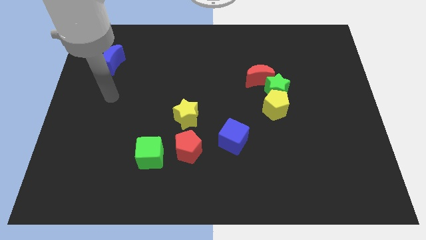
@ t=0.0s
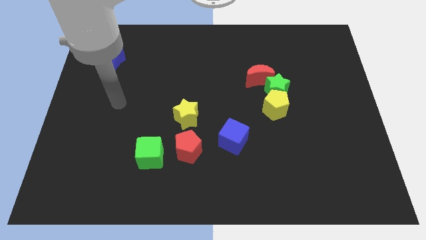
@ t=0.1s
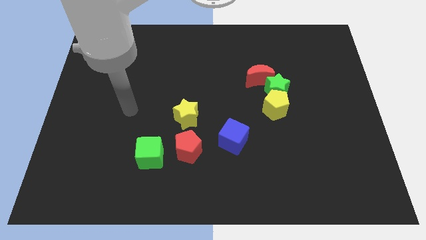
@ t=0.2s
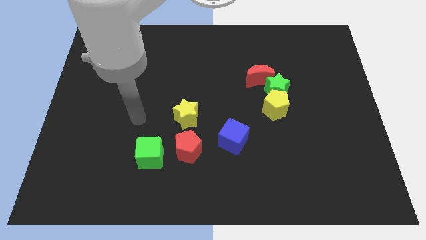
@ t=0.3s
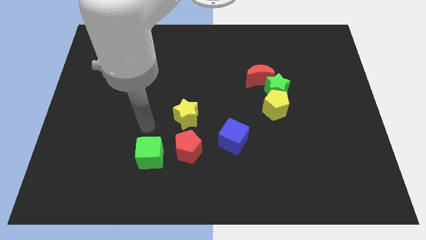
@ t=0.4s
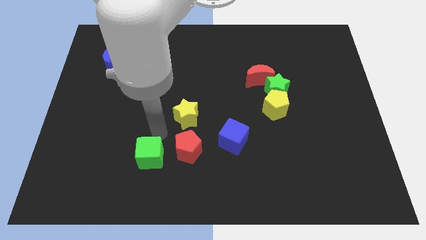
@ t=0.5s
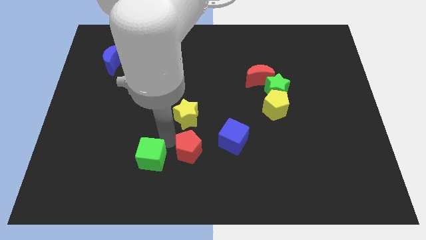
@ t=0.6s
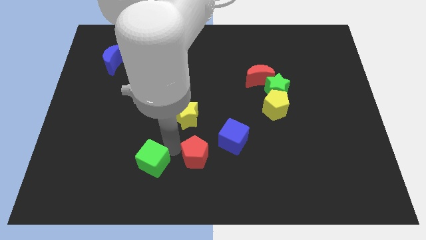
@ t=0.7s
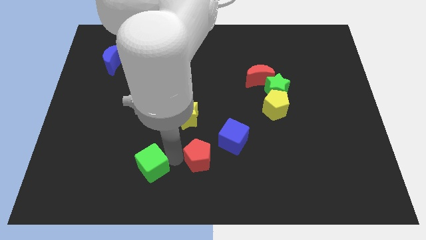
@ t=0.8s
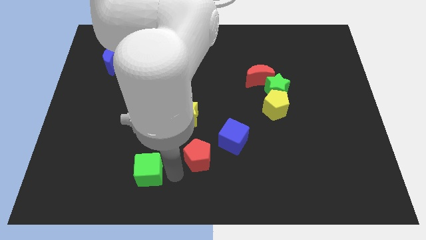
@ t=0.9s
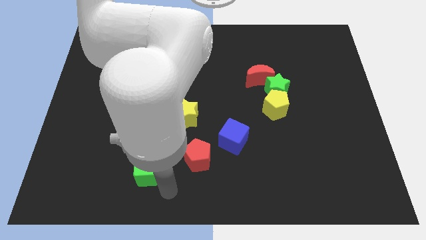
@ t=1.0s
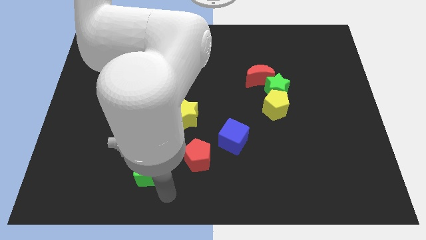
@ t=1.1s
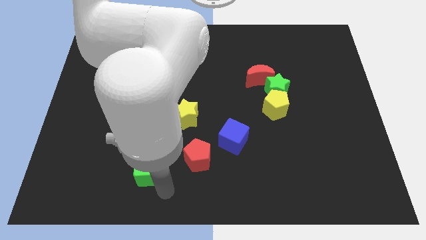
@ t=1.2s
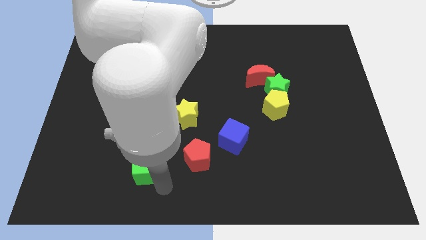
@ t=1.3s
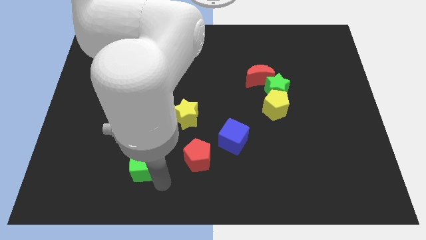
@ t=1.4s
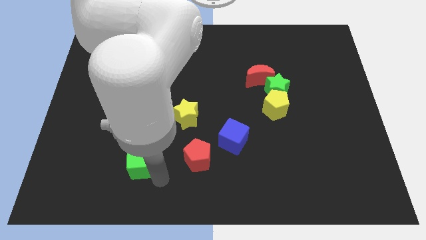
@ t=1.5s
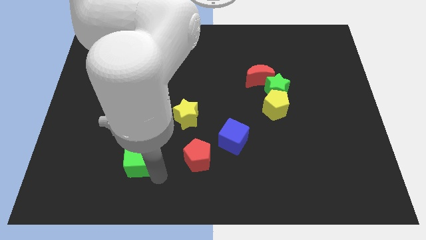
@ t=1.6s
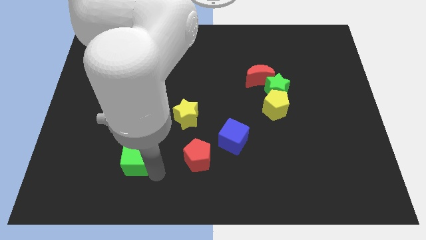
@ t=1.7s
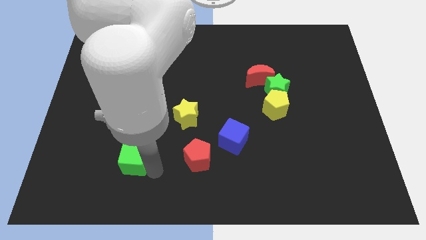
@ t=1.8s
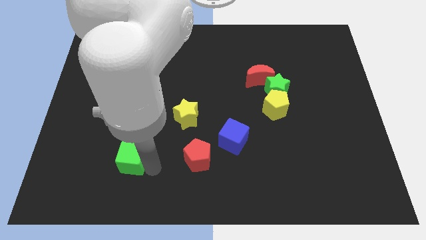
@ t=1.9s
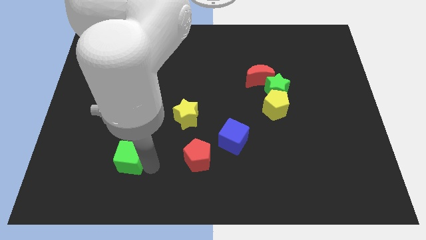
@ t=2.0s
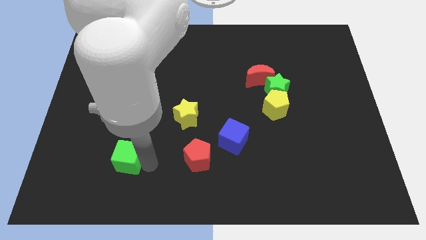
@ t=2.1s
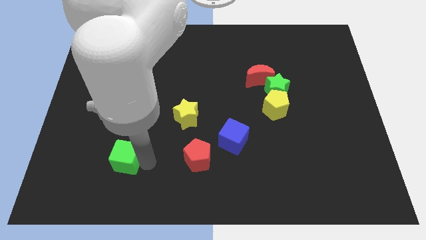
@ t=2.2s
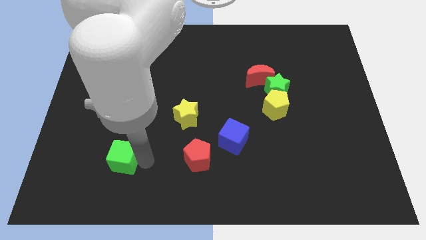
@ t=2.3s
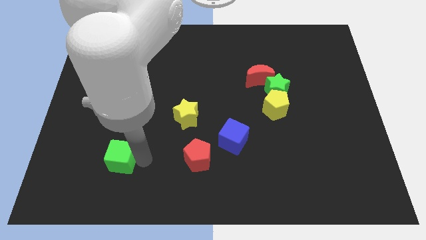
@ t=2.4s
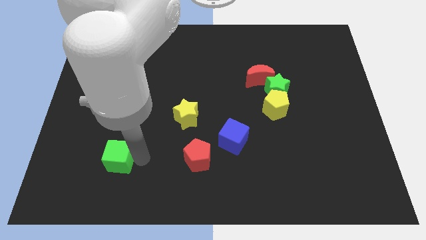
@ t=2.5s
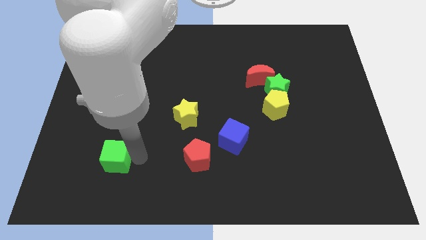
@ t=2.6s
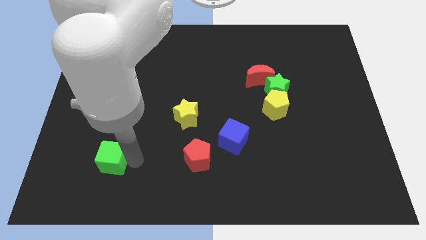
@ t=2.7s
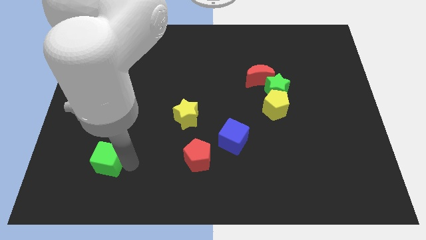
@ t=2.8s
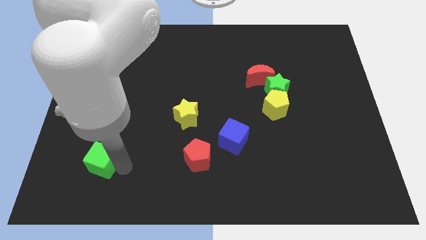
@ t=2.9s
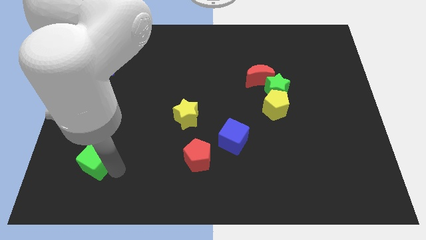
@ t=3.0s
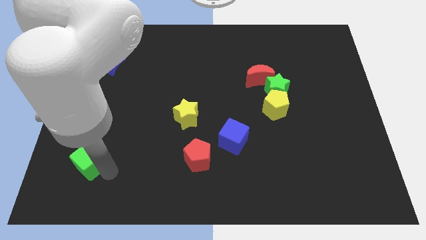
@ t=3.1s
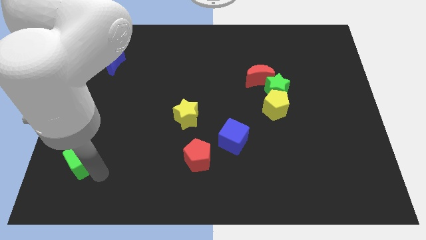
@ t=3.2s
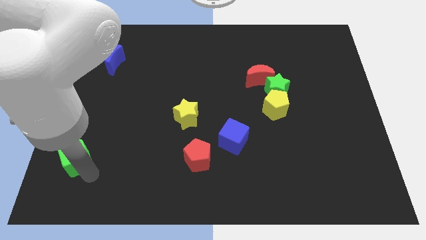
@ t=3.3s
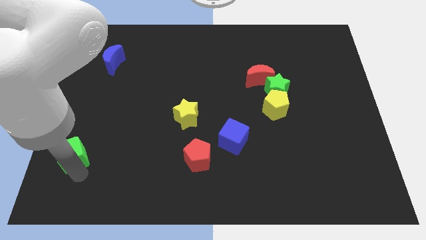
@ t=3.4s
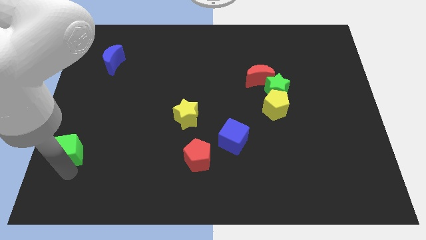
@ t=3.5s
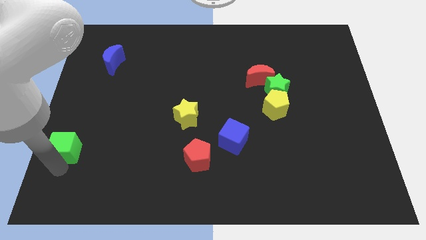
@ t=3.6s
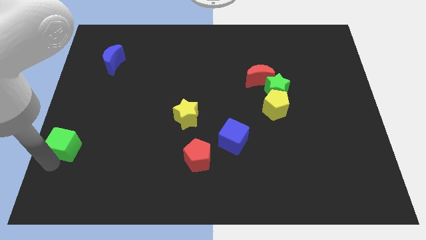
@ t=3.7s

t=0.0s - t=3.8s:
move the green cube diagonally upwards and to the left somewhat

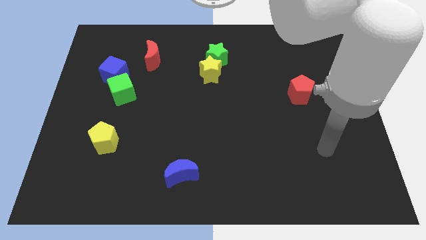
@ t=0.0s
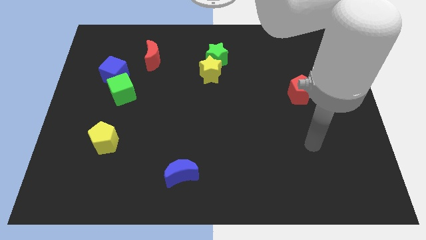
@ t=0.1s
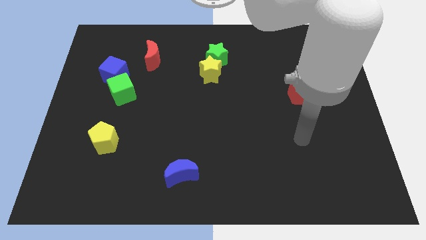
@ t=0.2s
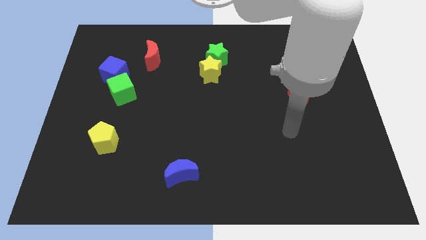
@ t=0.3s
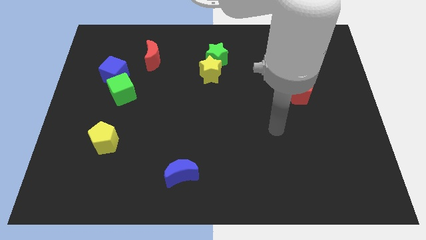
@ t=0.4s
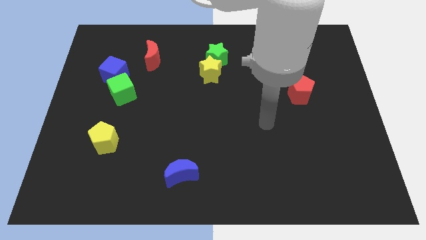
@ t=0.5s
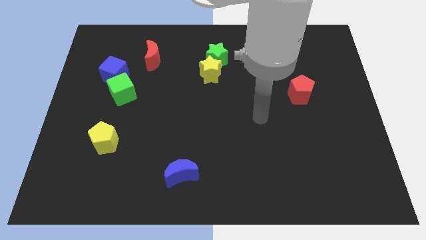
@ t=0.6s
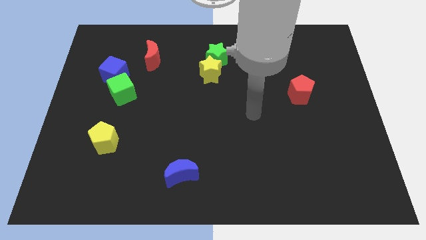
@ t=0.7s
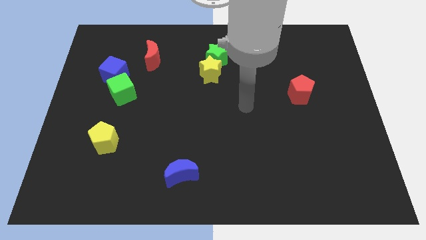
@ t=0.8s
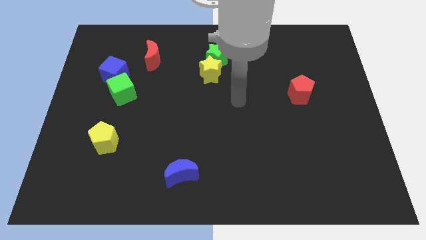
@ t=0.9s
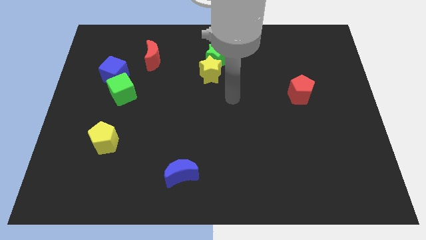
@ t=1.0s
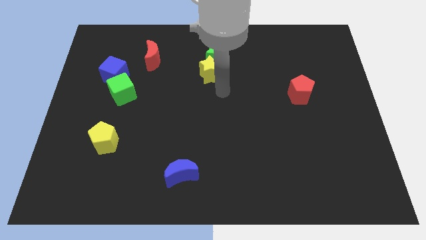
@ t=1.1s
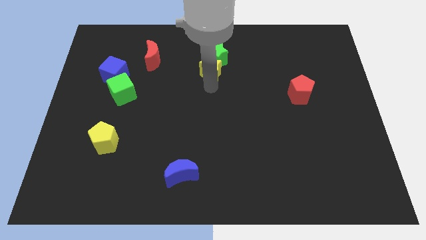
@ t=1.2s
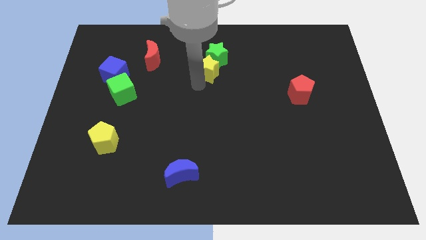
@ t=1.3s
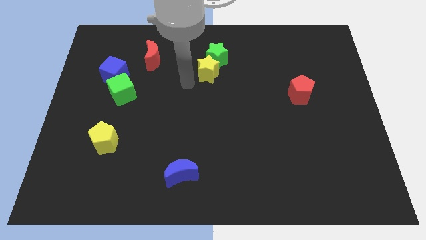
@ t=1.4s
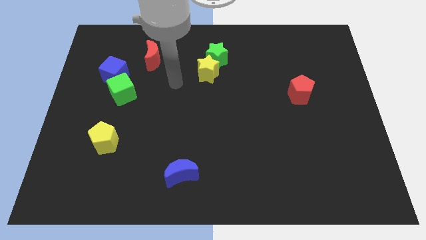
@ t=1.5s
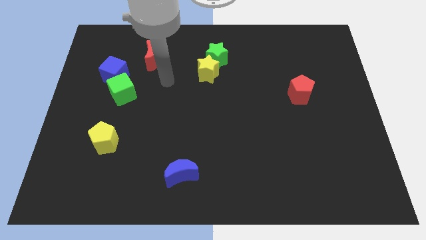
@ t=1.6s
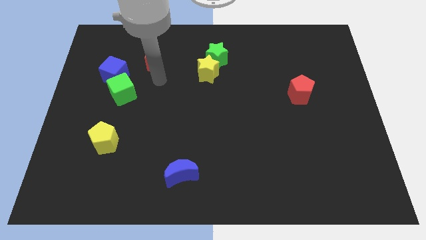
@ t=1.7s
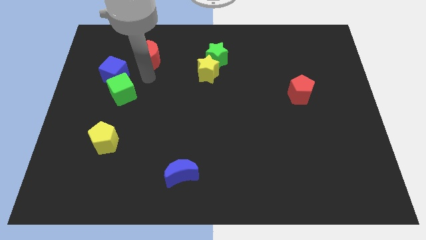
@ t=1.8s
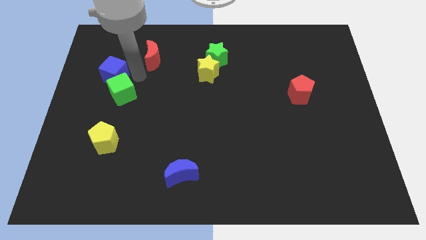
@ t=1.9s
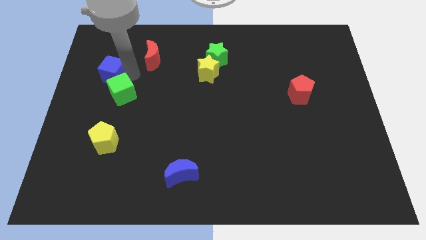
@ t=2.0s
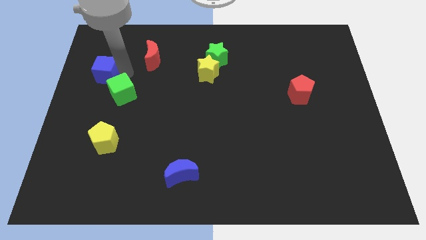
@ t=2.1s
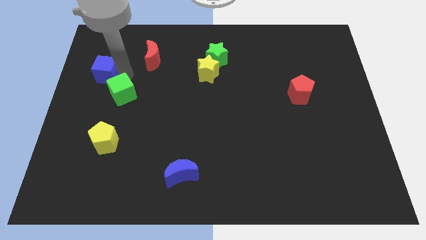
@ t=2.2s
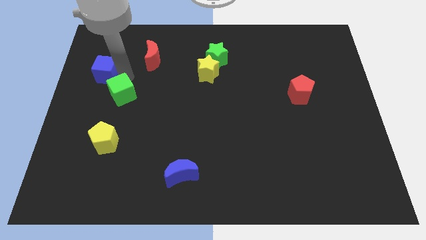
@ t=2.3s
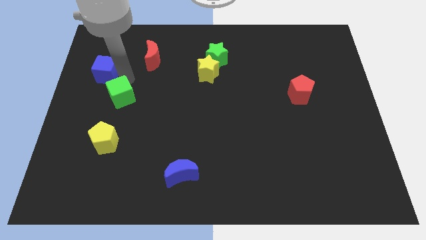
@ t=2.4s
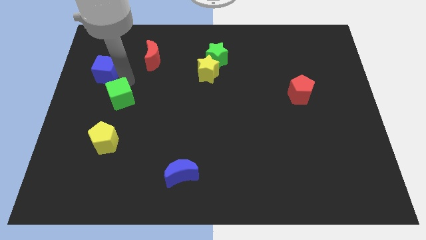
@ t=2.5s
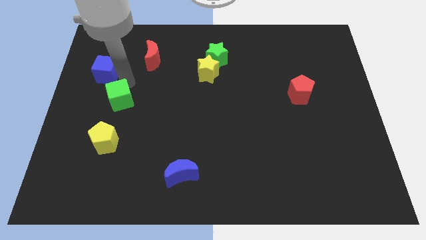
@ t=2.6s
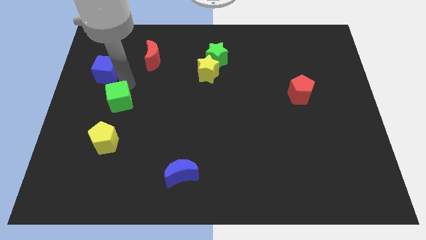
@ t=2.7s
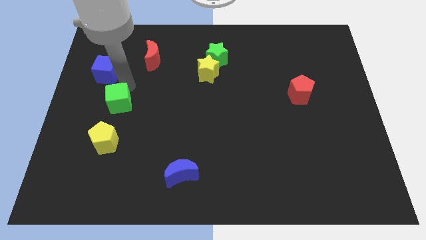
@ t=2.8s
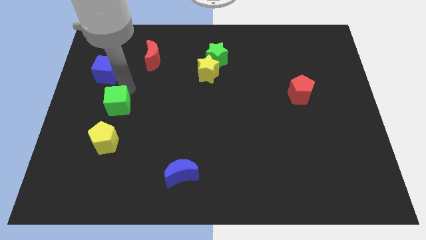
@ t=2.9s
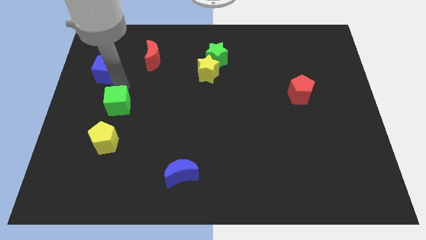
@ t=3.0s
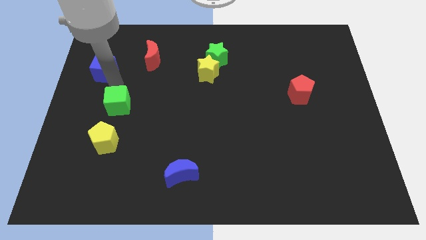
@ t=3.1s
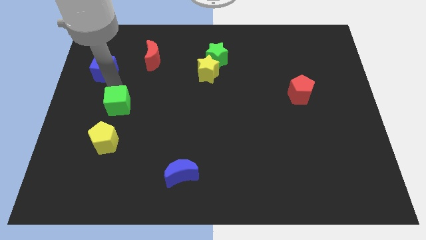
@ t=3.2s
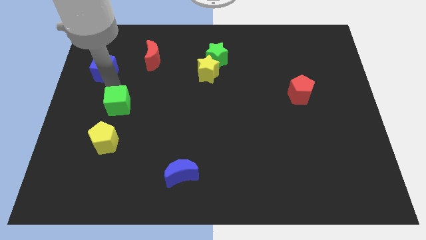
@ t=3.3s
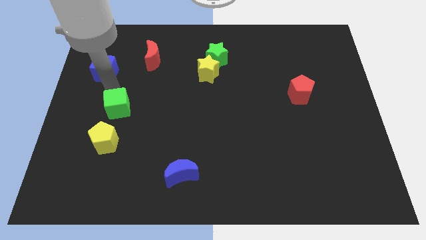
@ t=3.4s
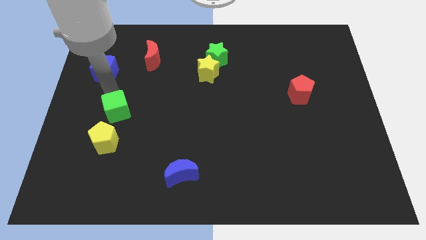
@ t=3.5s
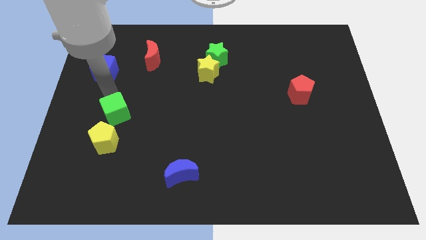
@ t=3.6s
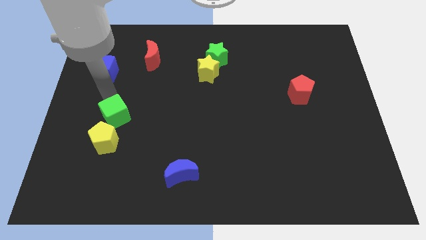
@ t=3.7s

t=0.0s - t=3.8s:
move the green cube downwards somewhat

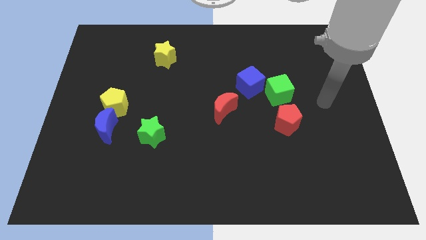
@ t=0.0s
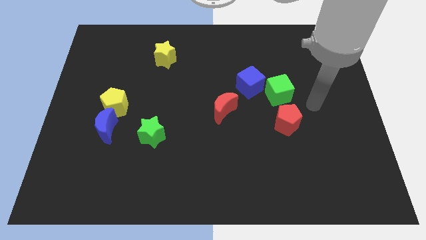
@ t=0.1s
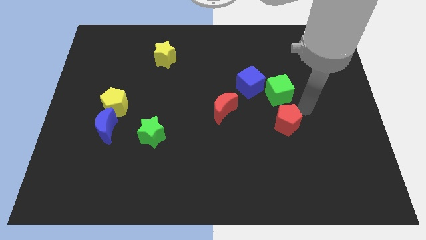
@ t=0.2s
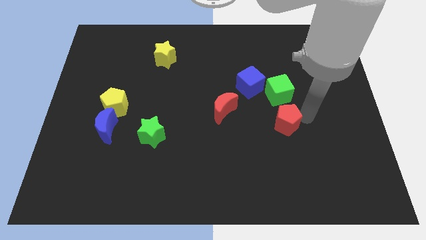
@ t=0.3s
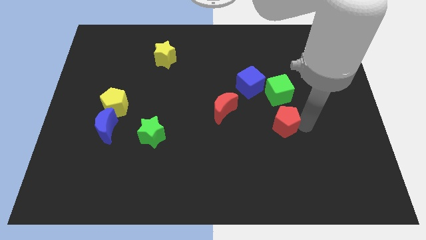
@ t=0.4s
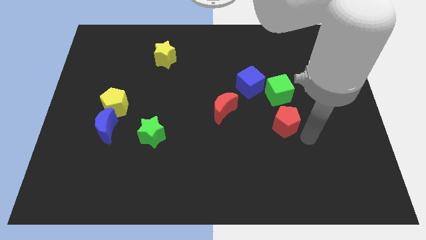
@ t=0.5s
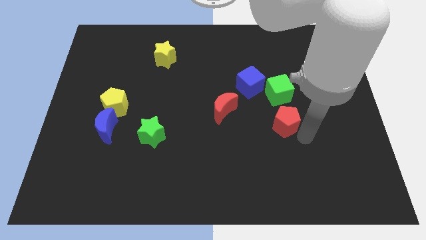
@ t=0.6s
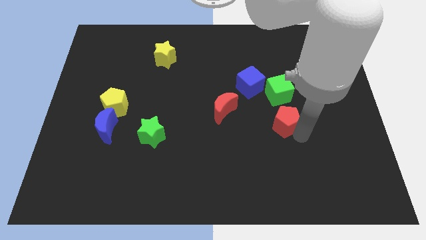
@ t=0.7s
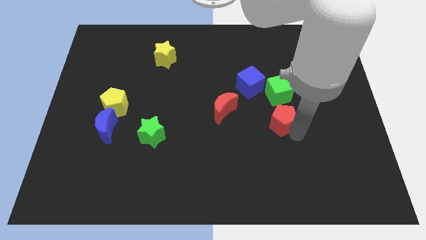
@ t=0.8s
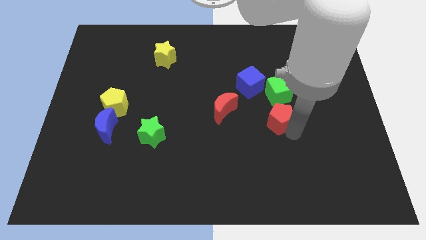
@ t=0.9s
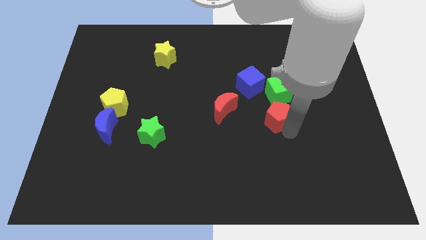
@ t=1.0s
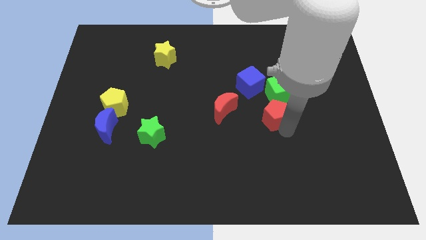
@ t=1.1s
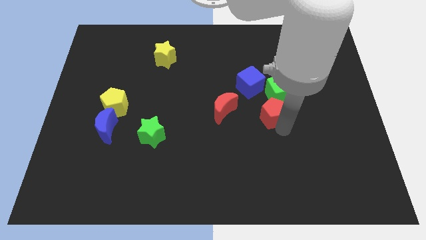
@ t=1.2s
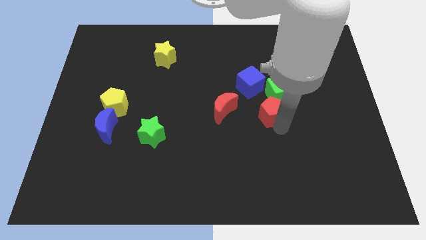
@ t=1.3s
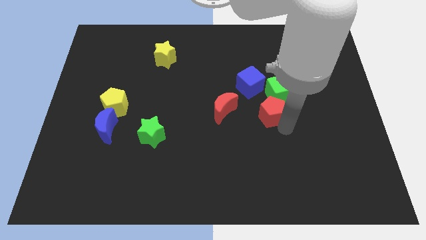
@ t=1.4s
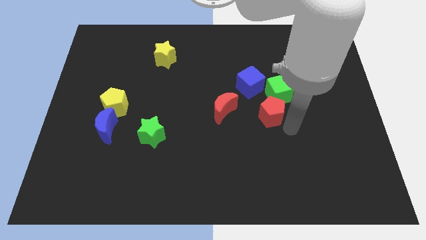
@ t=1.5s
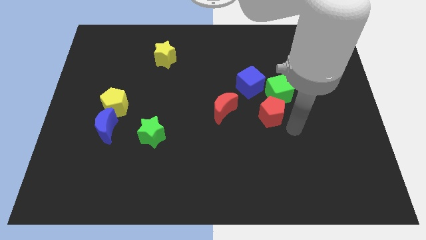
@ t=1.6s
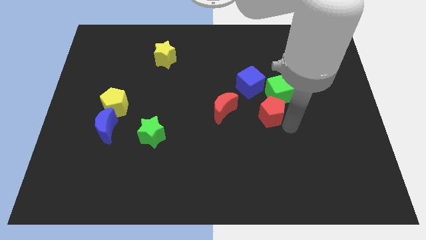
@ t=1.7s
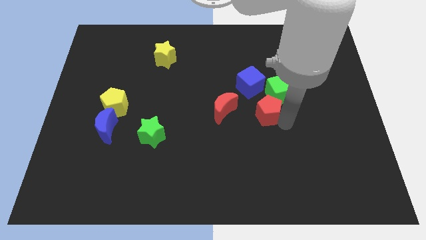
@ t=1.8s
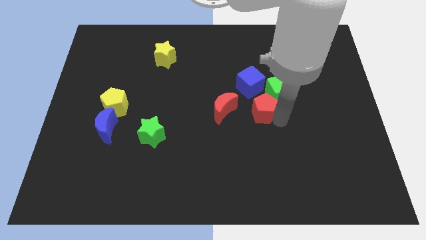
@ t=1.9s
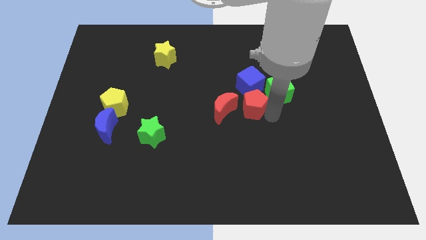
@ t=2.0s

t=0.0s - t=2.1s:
slightly slide the red pentagon up and then left
